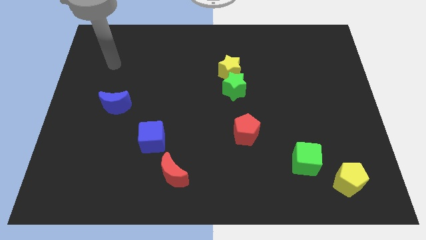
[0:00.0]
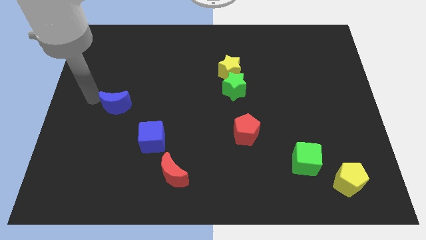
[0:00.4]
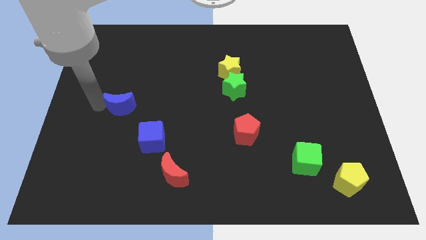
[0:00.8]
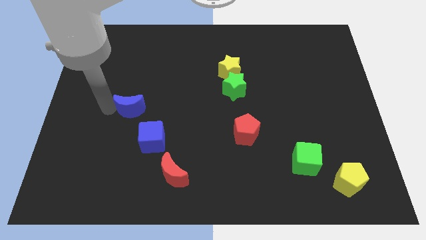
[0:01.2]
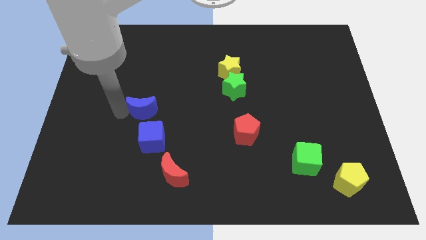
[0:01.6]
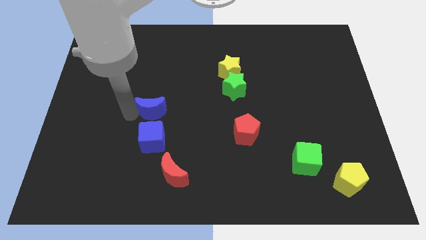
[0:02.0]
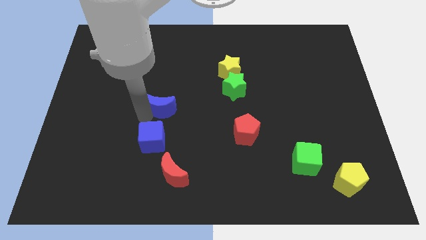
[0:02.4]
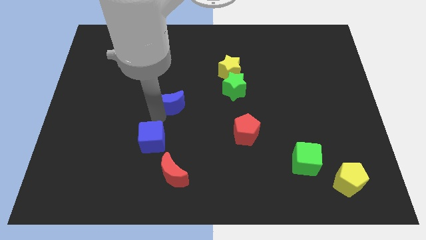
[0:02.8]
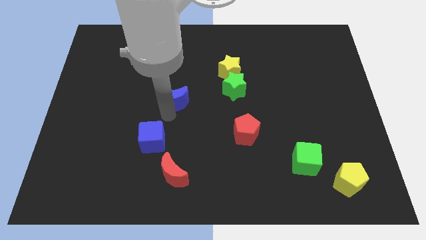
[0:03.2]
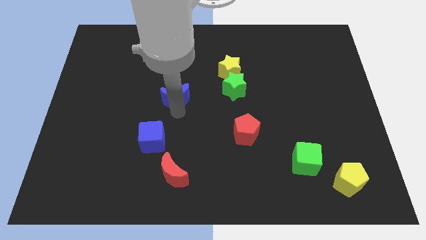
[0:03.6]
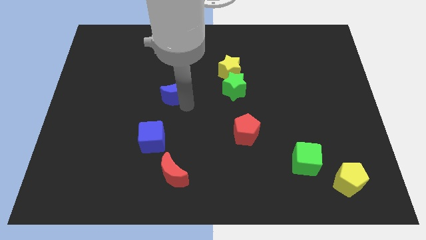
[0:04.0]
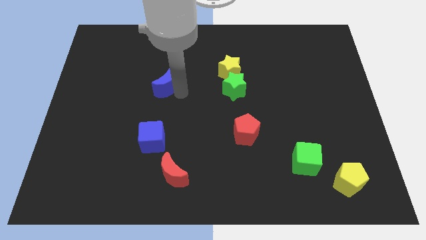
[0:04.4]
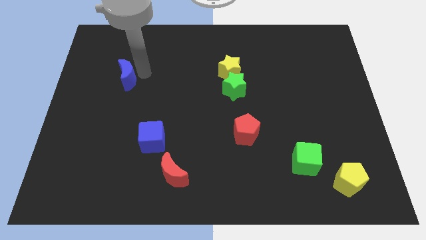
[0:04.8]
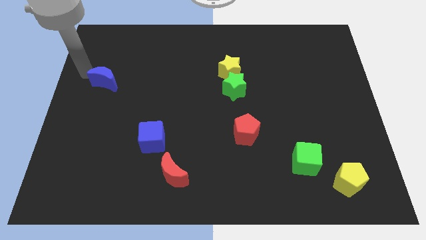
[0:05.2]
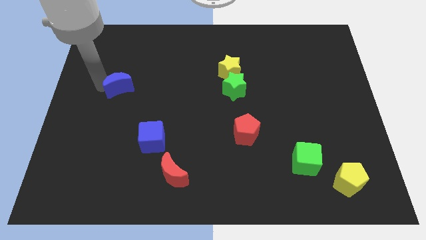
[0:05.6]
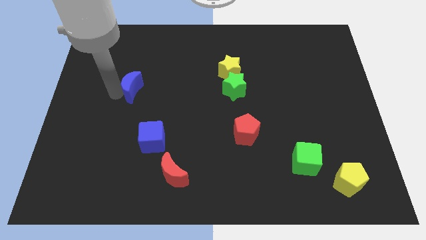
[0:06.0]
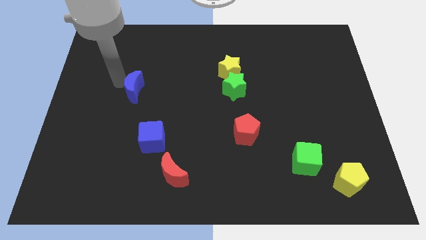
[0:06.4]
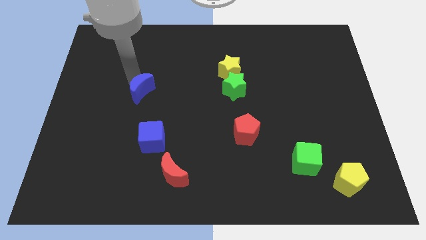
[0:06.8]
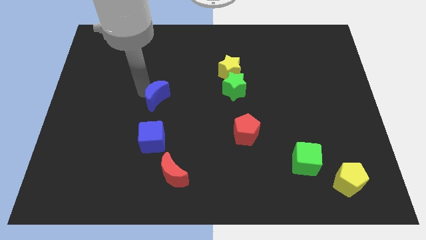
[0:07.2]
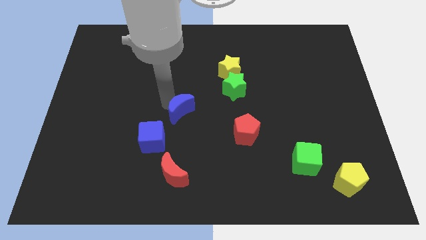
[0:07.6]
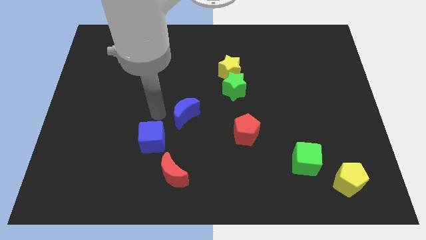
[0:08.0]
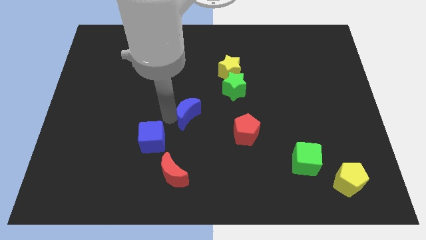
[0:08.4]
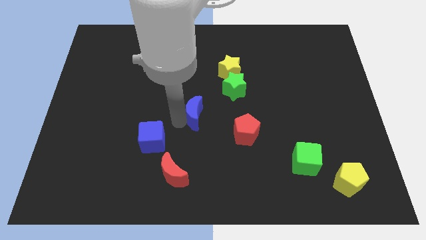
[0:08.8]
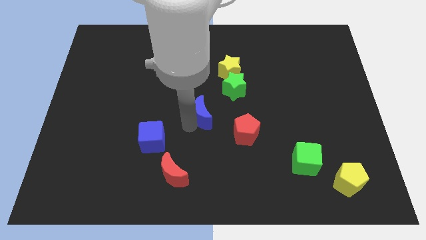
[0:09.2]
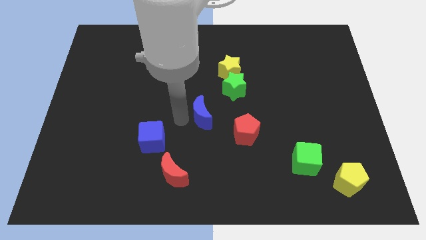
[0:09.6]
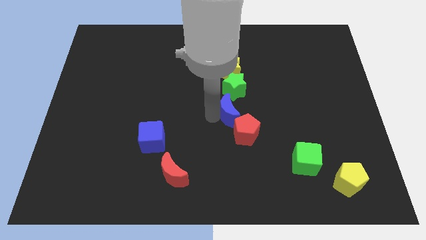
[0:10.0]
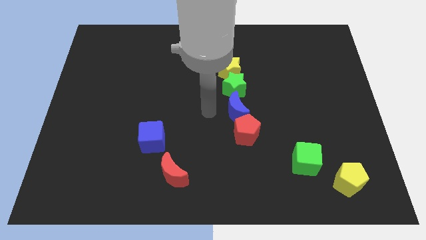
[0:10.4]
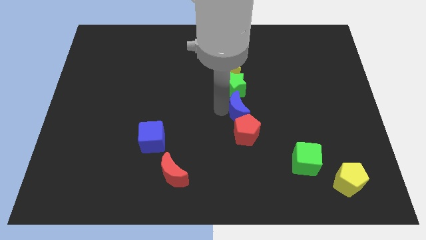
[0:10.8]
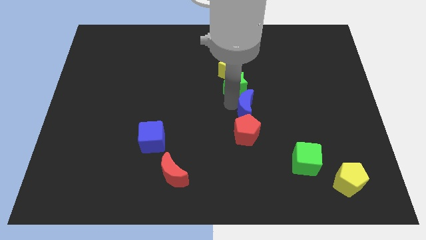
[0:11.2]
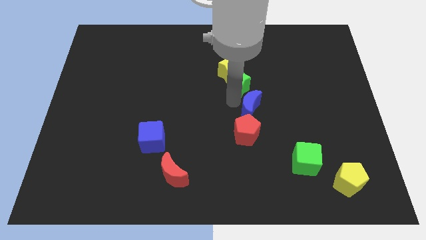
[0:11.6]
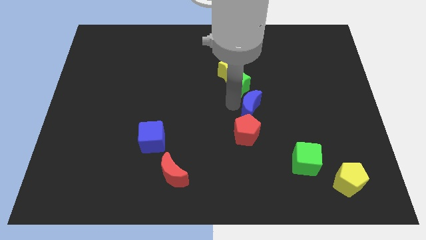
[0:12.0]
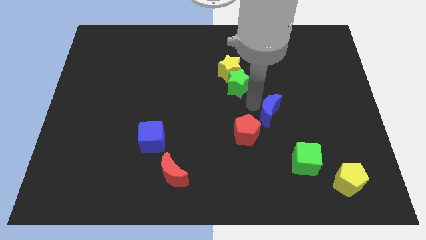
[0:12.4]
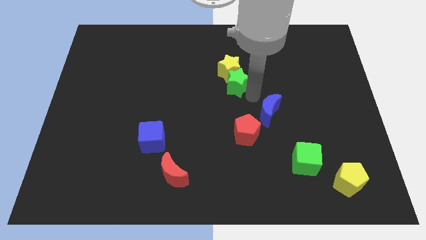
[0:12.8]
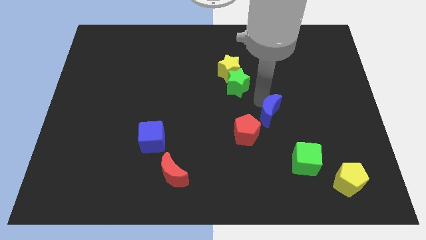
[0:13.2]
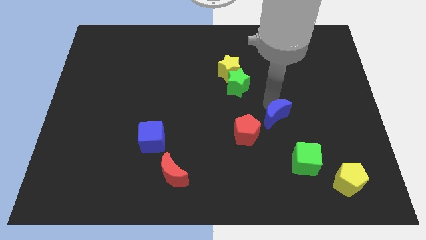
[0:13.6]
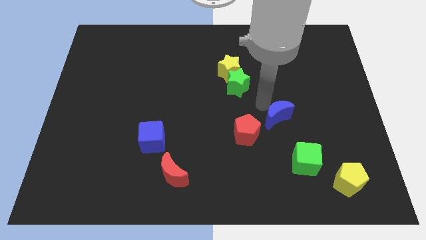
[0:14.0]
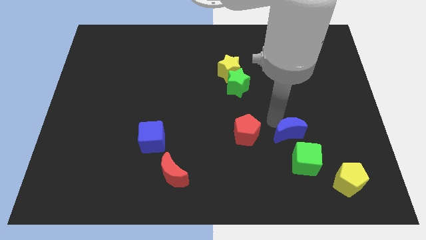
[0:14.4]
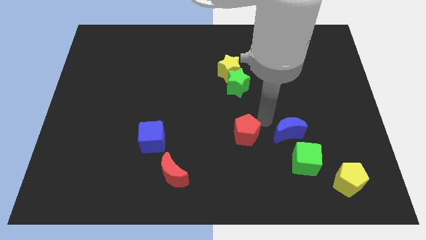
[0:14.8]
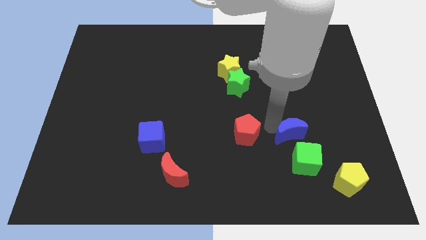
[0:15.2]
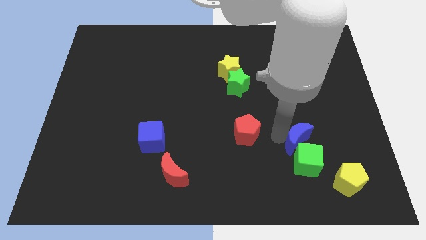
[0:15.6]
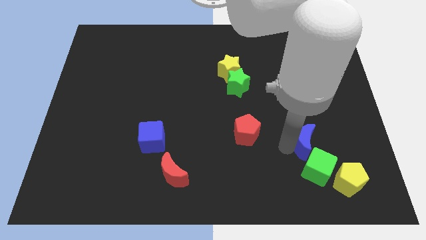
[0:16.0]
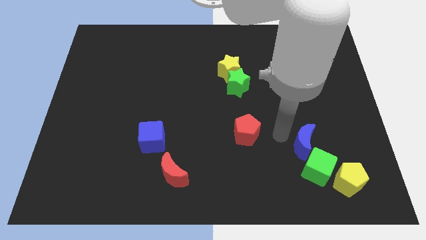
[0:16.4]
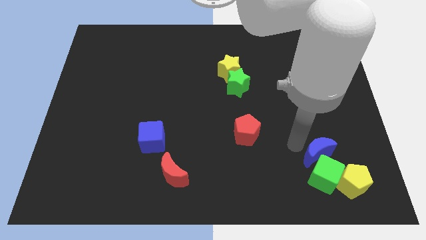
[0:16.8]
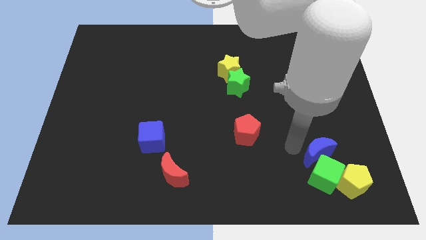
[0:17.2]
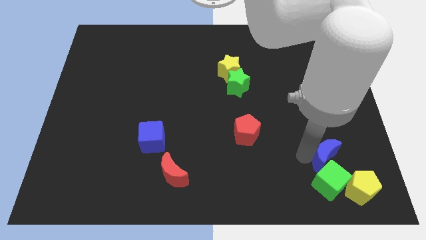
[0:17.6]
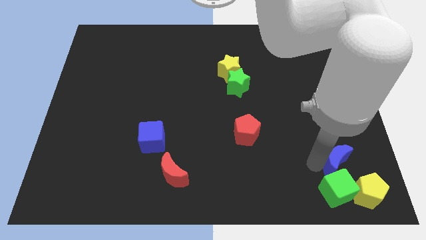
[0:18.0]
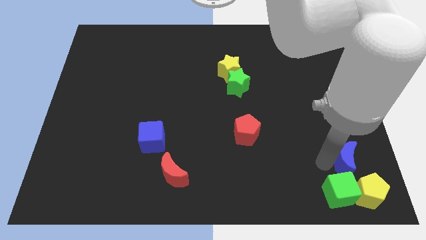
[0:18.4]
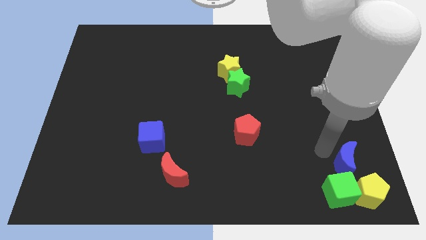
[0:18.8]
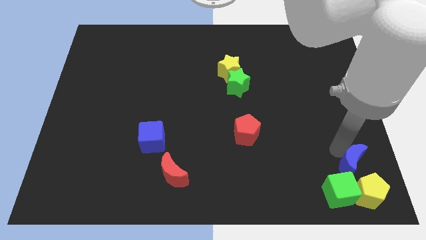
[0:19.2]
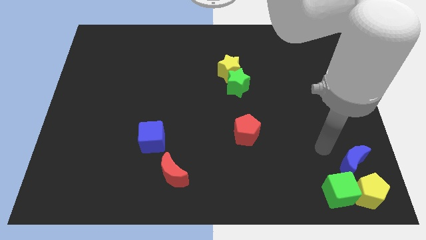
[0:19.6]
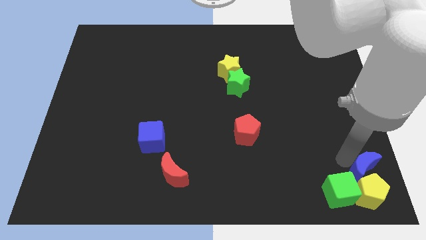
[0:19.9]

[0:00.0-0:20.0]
move the blue moon to the bottom right corner

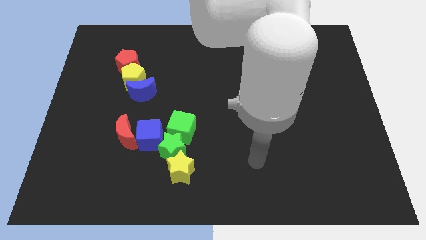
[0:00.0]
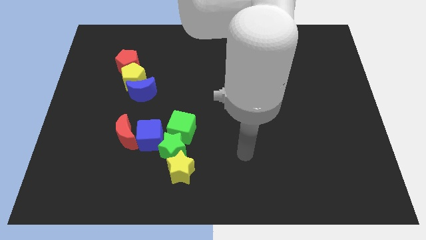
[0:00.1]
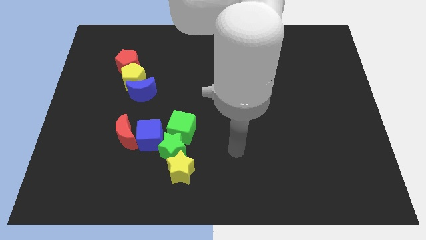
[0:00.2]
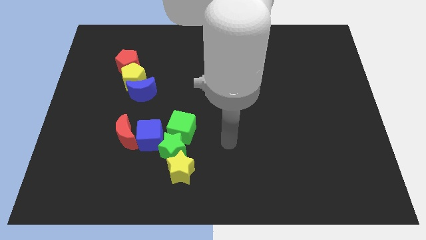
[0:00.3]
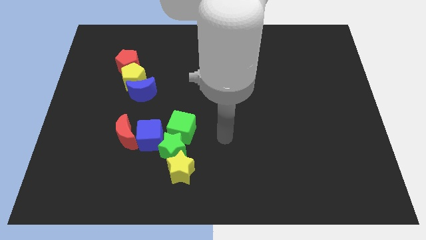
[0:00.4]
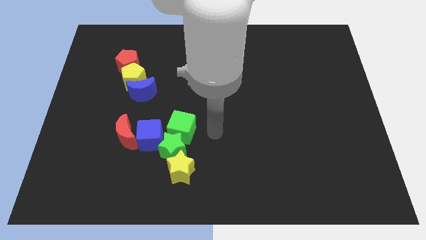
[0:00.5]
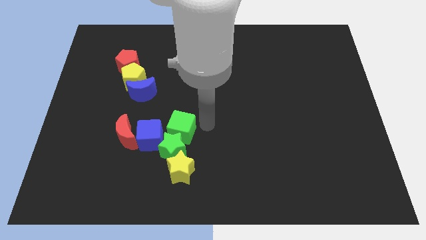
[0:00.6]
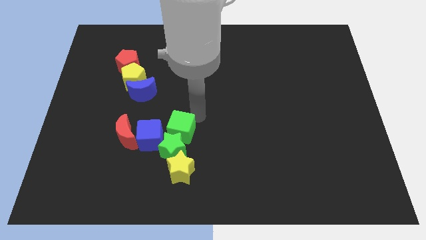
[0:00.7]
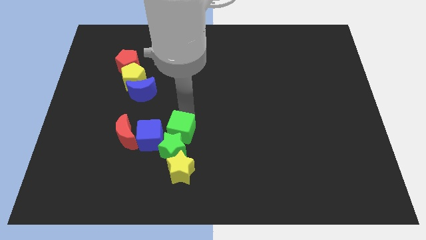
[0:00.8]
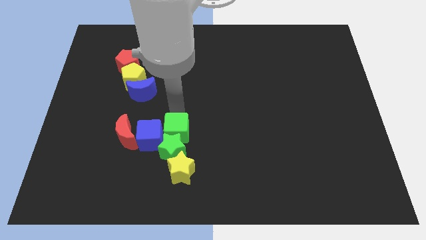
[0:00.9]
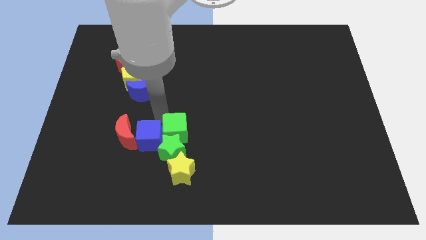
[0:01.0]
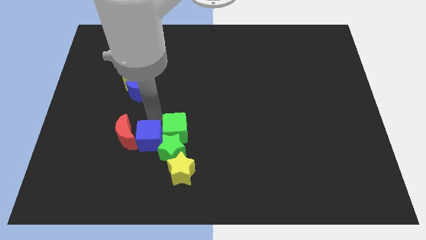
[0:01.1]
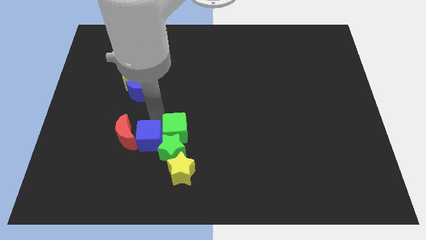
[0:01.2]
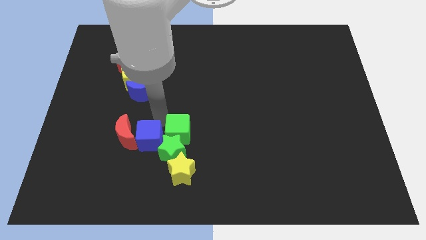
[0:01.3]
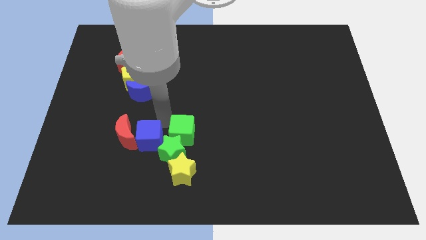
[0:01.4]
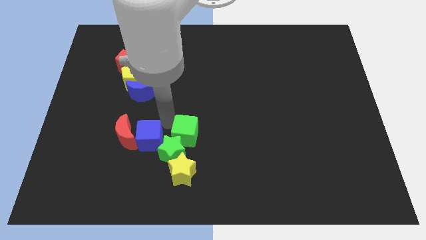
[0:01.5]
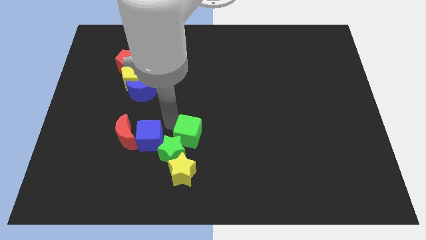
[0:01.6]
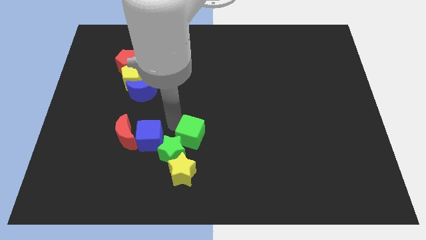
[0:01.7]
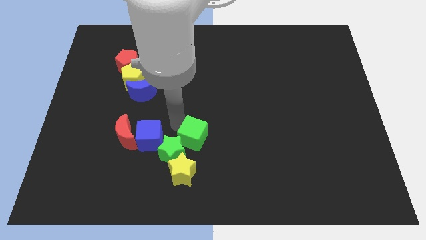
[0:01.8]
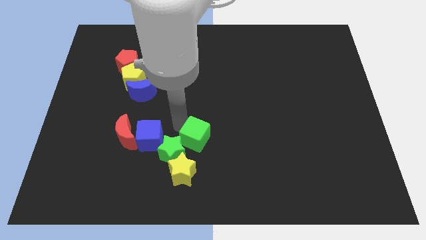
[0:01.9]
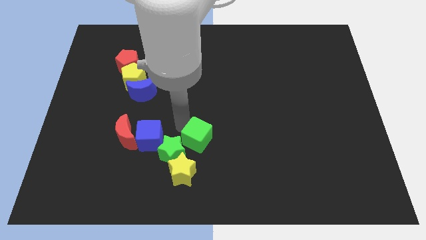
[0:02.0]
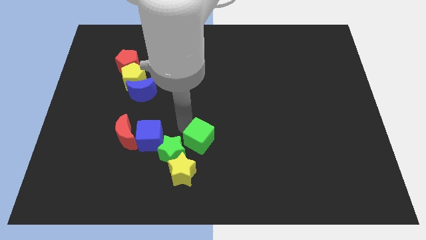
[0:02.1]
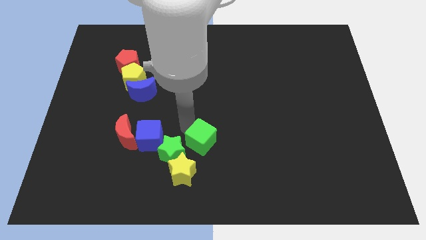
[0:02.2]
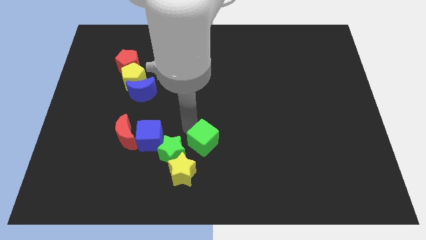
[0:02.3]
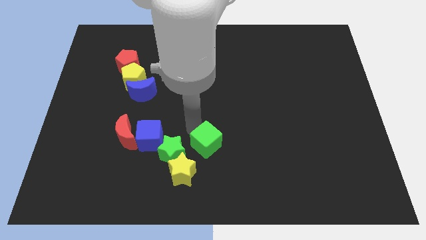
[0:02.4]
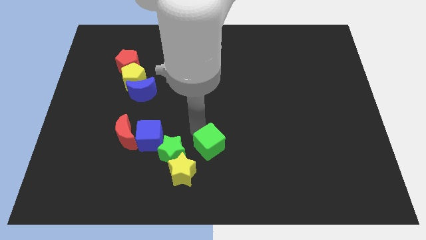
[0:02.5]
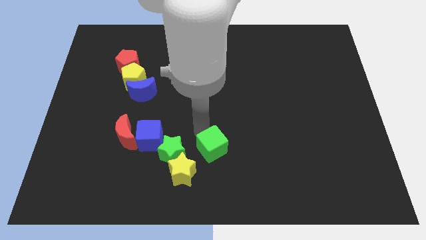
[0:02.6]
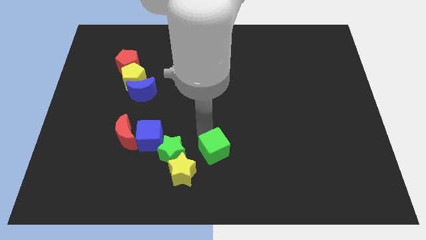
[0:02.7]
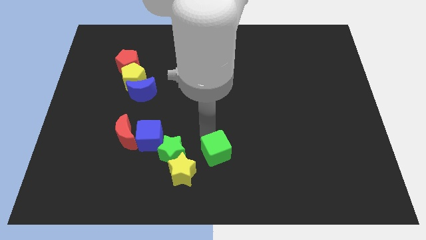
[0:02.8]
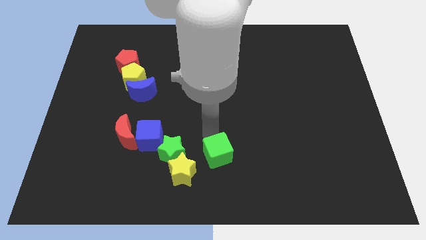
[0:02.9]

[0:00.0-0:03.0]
put the green cube to the bottom
